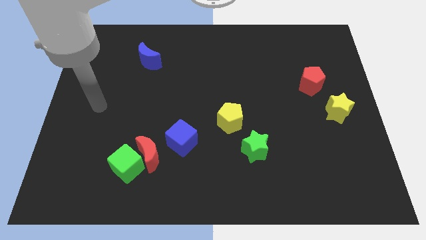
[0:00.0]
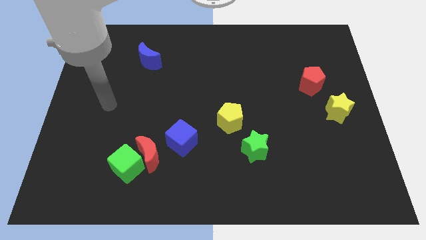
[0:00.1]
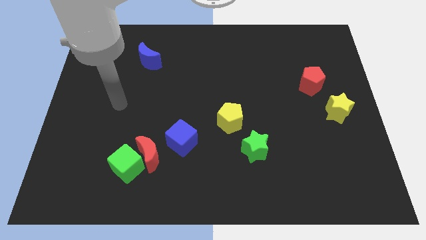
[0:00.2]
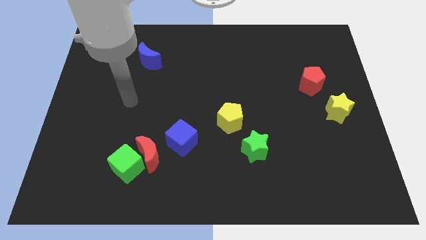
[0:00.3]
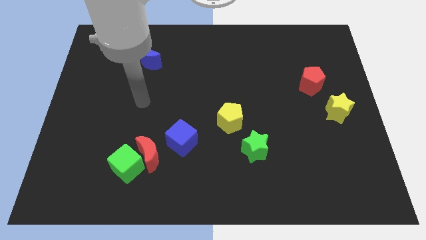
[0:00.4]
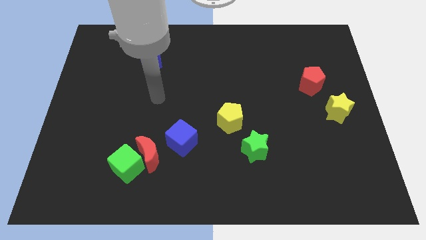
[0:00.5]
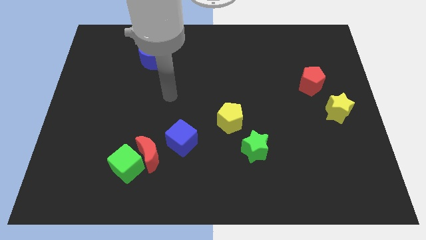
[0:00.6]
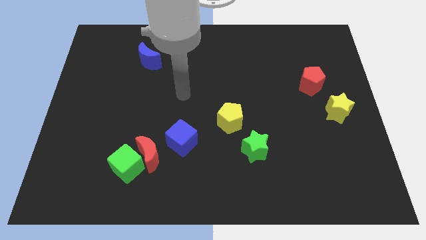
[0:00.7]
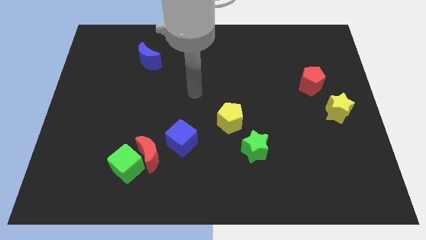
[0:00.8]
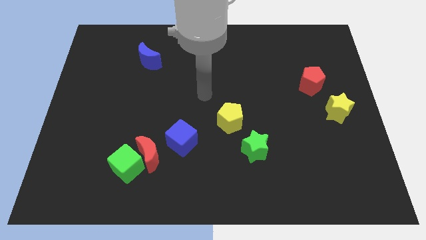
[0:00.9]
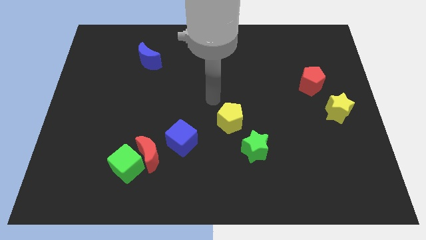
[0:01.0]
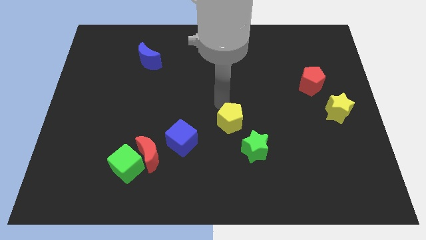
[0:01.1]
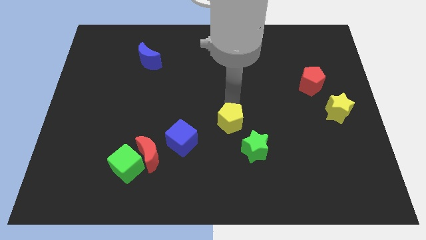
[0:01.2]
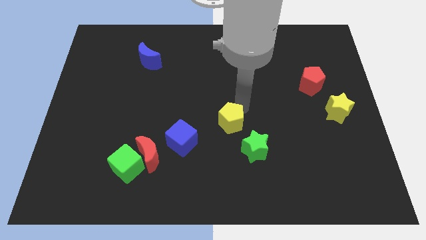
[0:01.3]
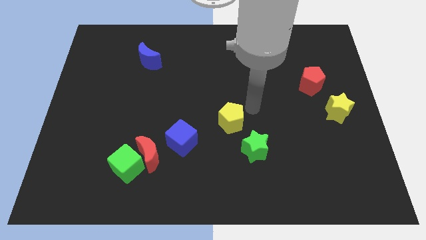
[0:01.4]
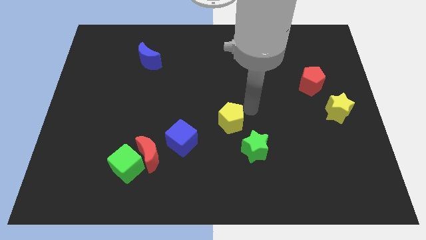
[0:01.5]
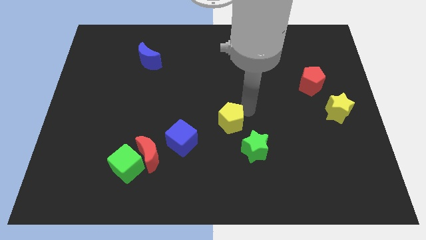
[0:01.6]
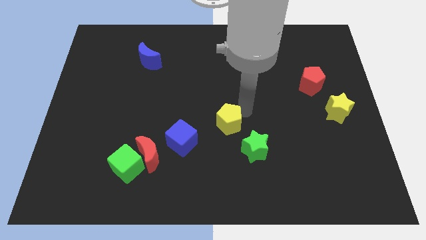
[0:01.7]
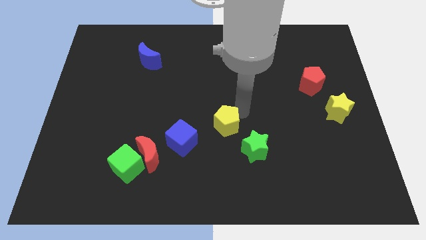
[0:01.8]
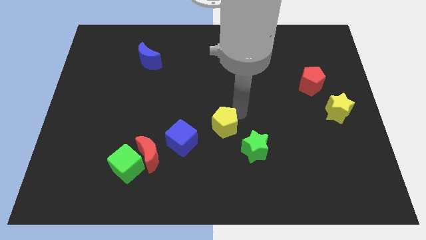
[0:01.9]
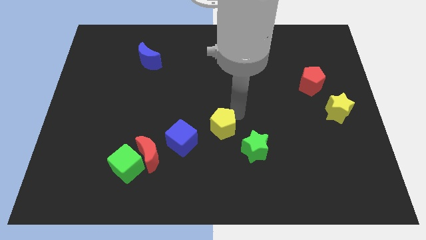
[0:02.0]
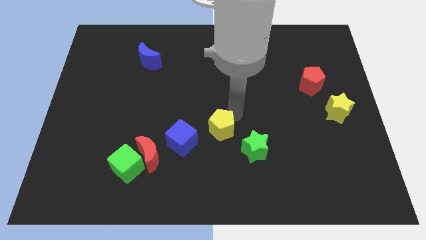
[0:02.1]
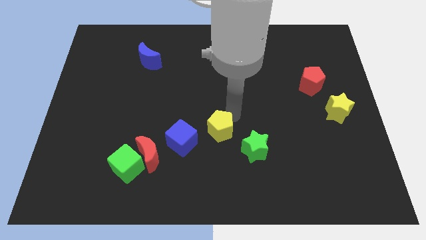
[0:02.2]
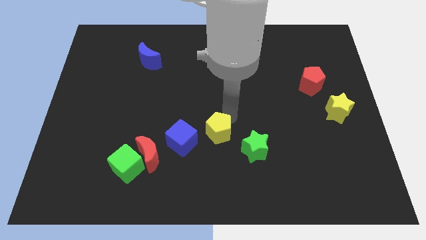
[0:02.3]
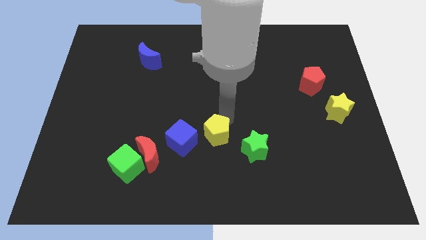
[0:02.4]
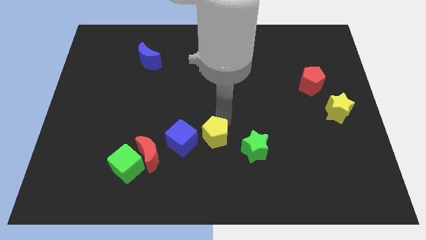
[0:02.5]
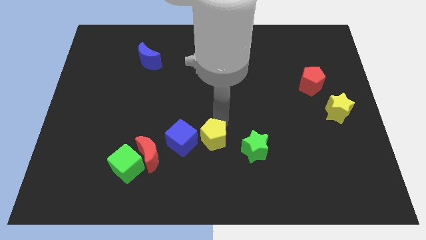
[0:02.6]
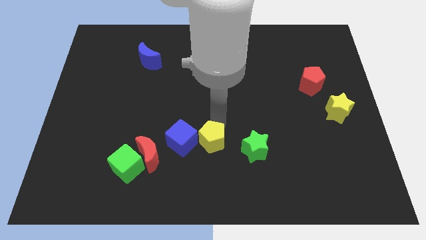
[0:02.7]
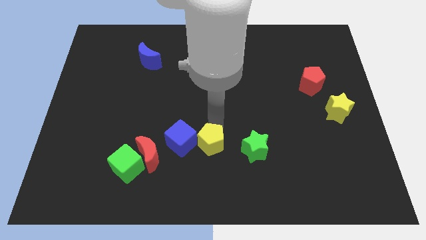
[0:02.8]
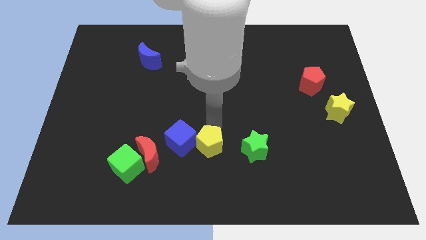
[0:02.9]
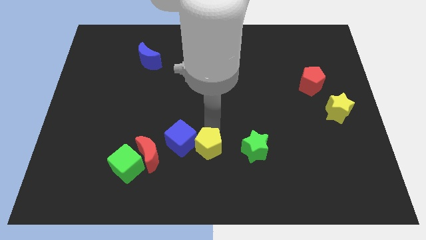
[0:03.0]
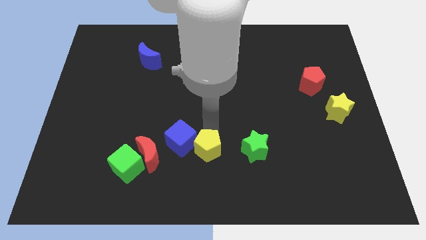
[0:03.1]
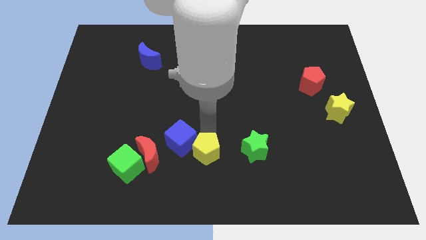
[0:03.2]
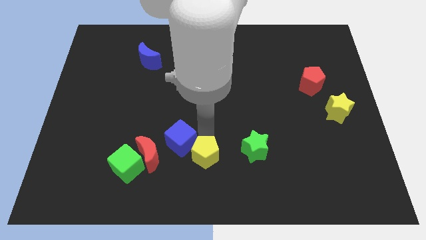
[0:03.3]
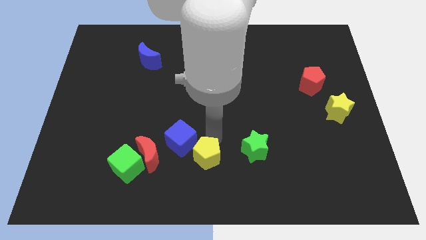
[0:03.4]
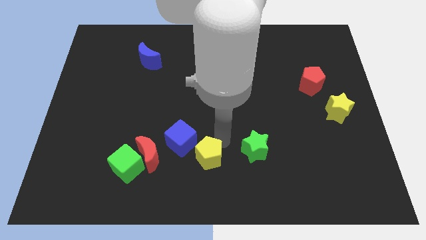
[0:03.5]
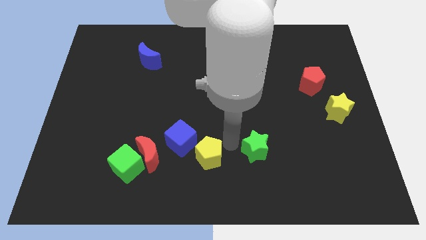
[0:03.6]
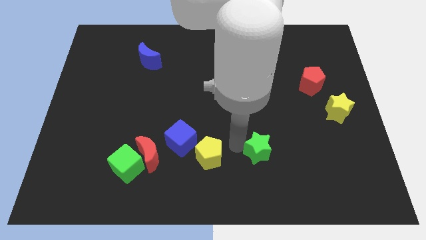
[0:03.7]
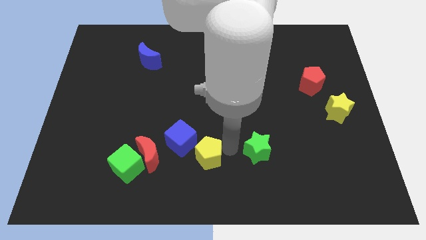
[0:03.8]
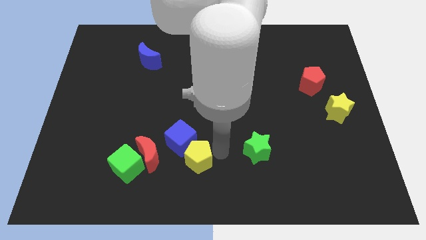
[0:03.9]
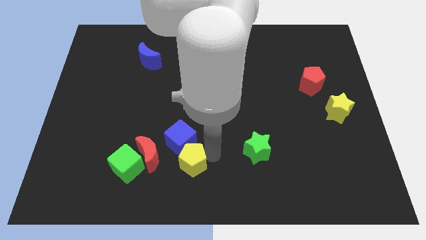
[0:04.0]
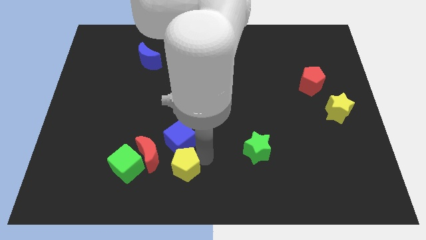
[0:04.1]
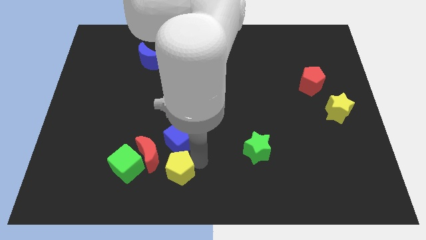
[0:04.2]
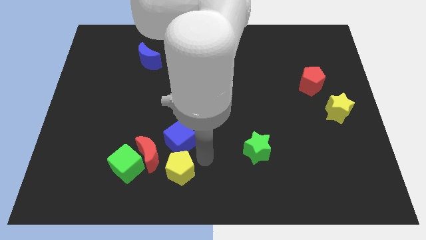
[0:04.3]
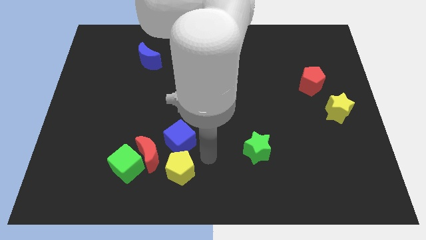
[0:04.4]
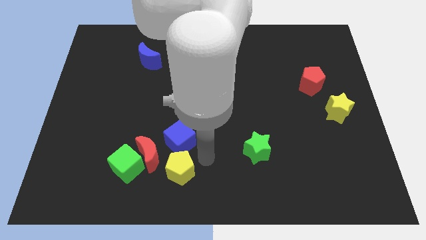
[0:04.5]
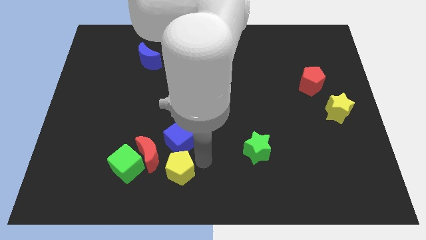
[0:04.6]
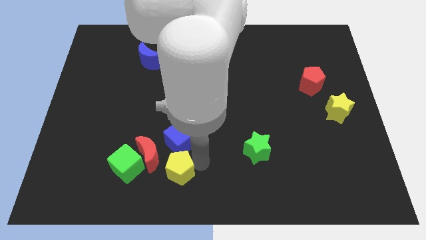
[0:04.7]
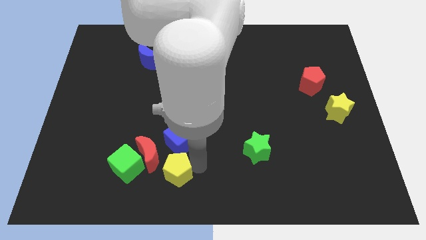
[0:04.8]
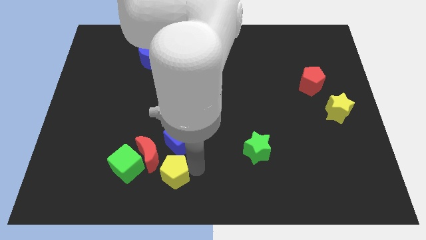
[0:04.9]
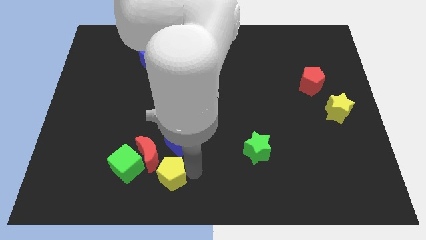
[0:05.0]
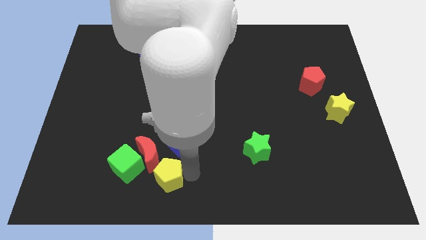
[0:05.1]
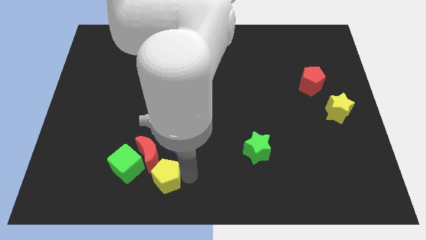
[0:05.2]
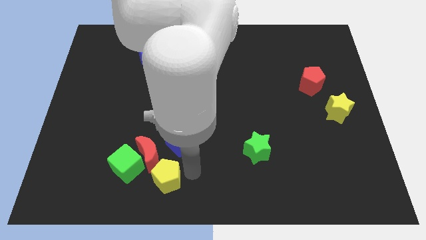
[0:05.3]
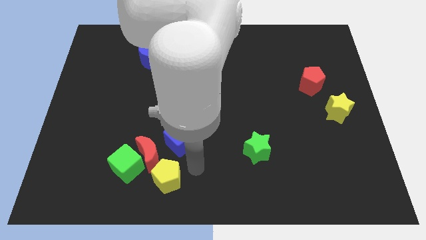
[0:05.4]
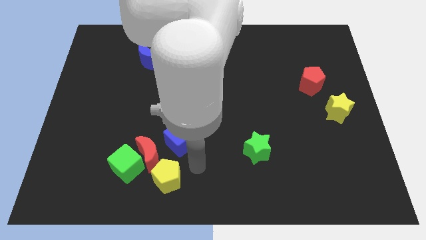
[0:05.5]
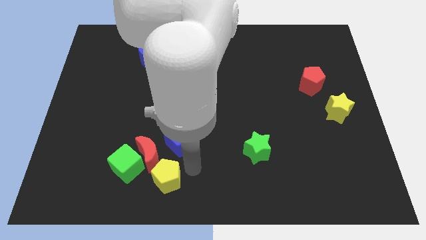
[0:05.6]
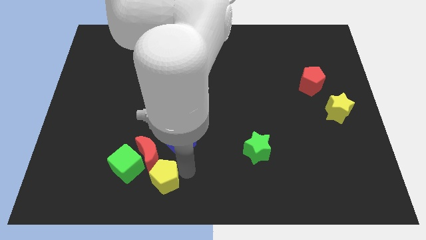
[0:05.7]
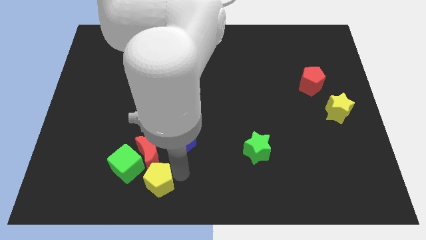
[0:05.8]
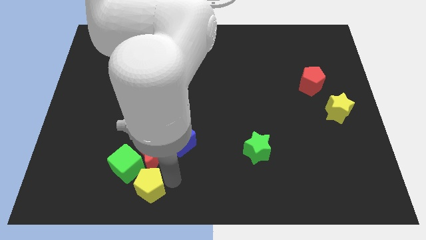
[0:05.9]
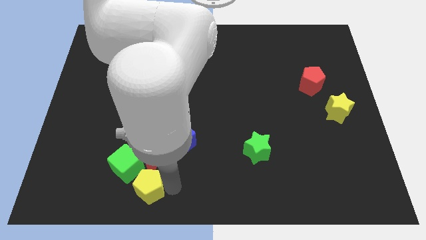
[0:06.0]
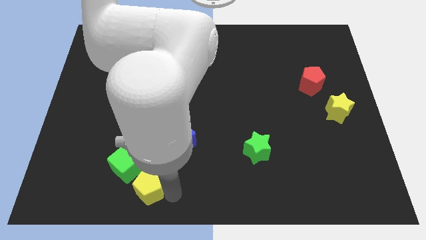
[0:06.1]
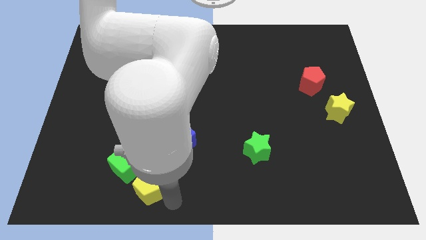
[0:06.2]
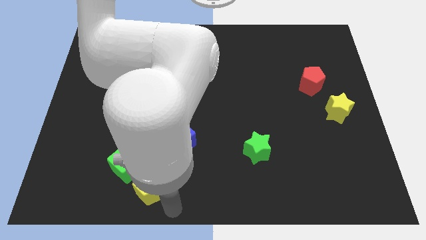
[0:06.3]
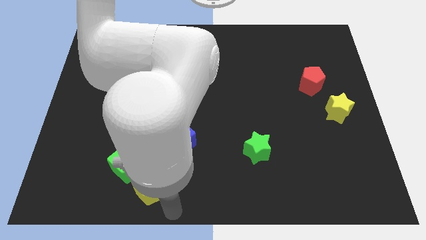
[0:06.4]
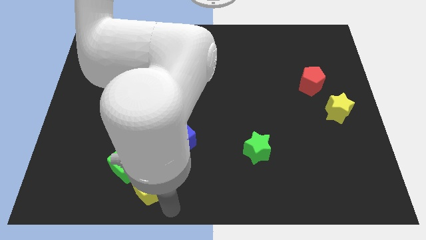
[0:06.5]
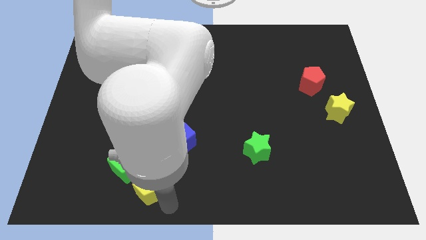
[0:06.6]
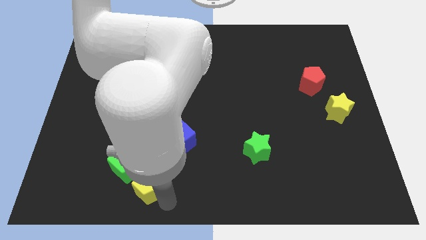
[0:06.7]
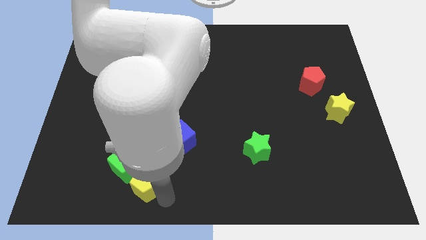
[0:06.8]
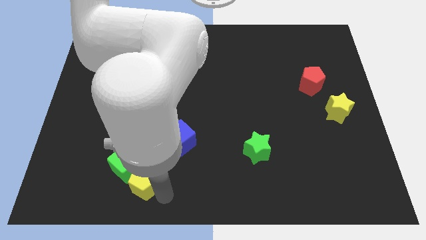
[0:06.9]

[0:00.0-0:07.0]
move the yellow pentagon next to the green cube

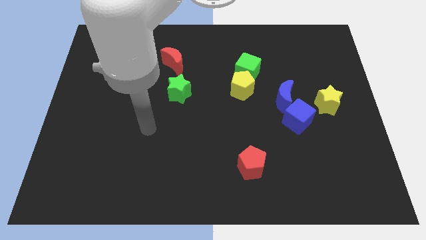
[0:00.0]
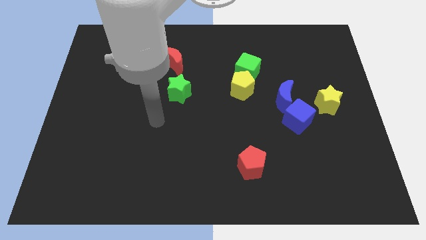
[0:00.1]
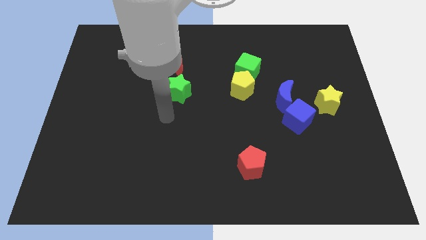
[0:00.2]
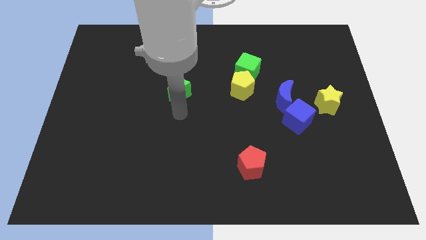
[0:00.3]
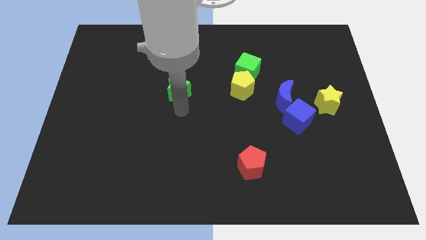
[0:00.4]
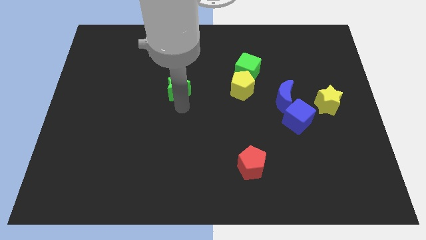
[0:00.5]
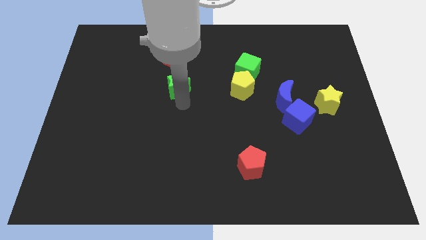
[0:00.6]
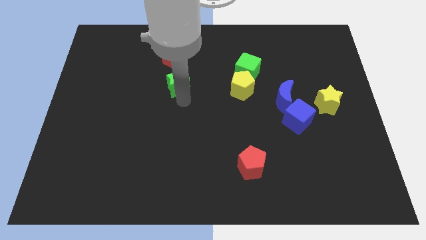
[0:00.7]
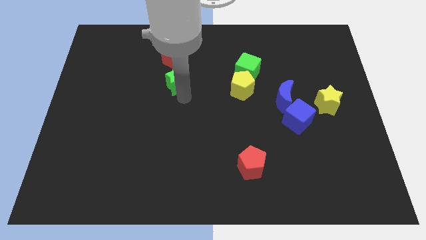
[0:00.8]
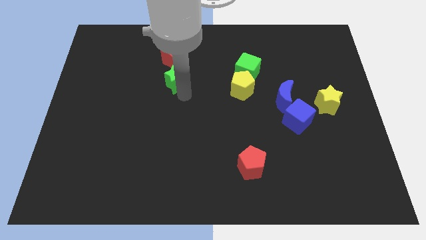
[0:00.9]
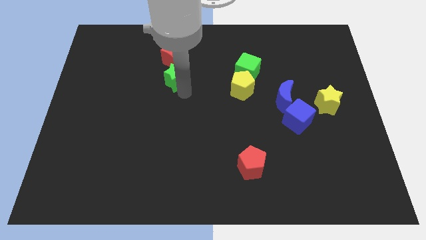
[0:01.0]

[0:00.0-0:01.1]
move the green star to the red moon
